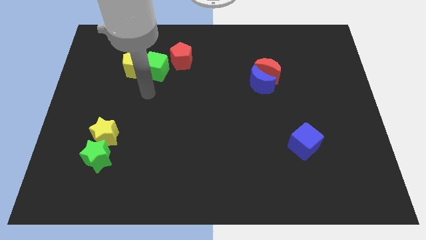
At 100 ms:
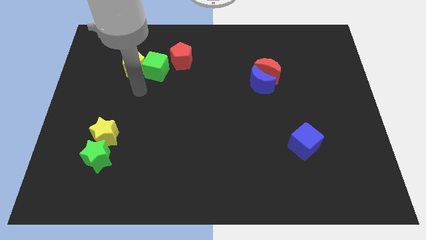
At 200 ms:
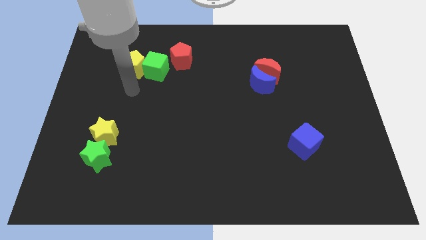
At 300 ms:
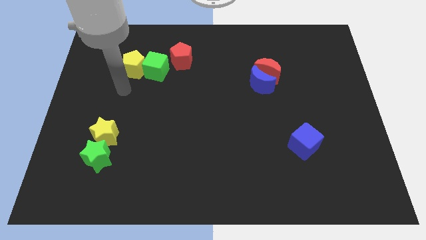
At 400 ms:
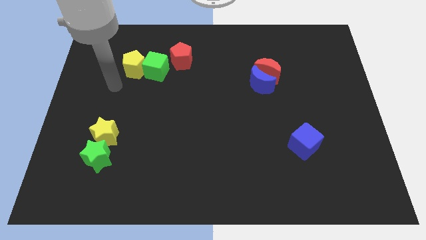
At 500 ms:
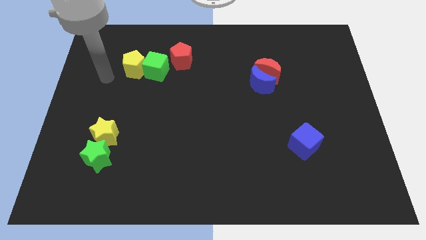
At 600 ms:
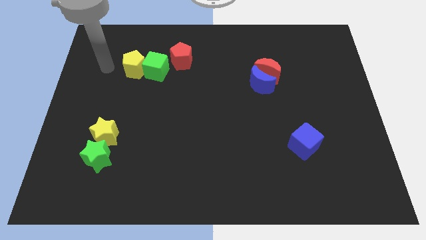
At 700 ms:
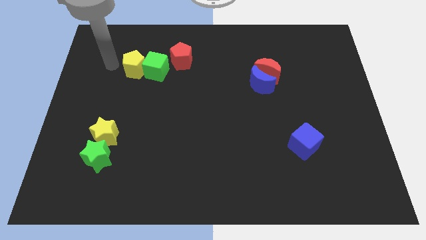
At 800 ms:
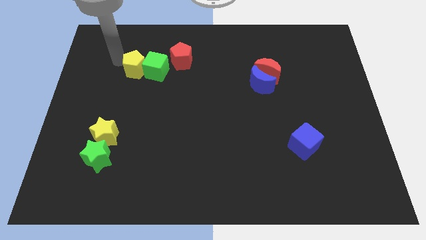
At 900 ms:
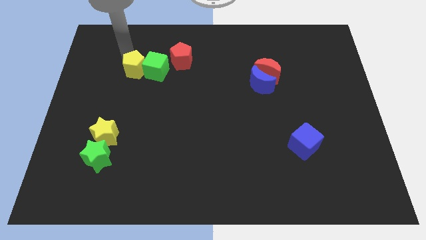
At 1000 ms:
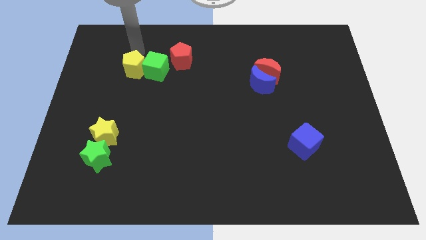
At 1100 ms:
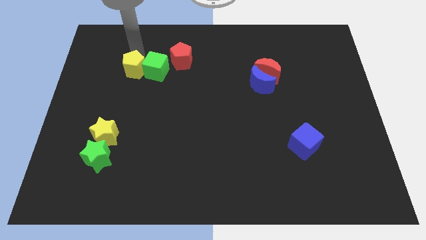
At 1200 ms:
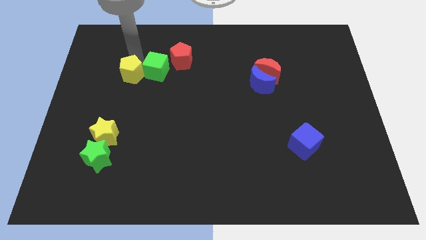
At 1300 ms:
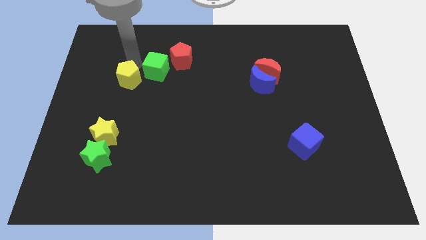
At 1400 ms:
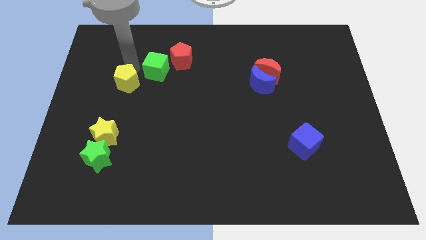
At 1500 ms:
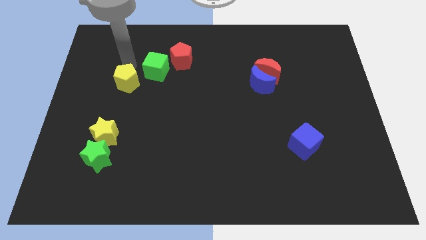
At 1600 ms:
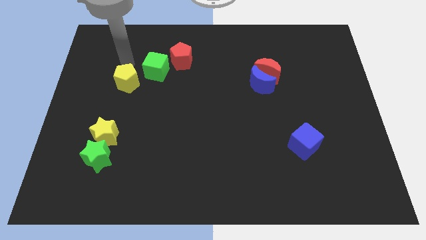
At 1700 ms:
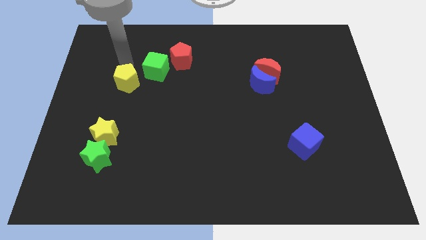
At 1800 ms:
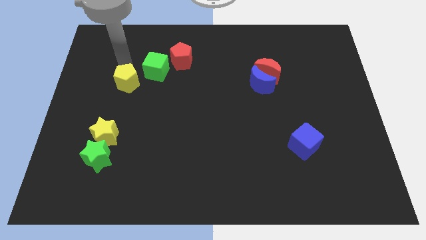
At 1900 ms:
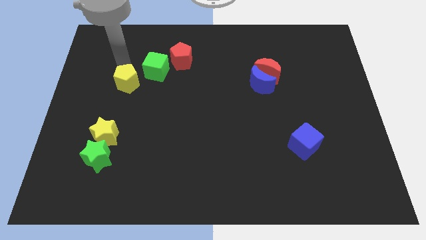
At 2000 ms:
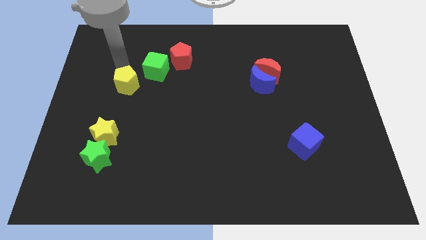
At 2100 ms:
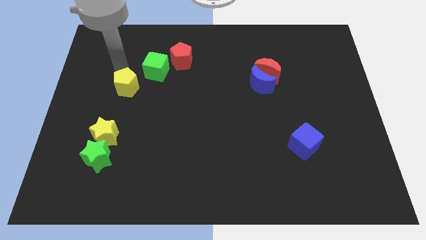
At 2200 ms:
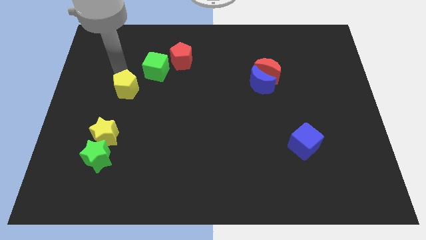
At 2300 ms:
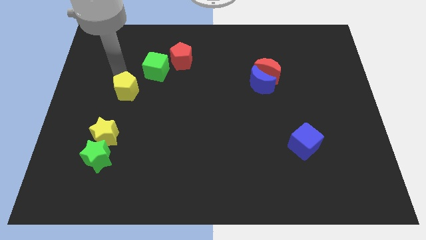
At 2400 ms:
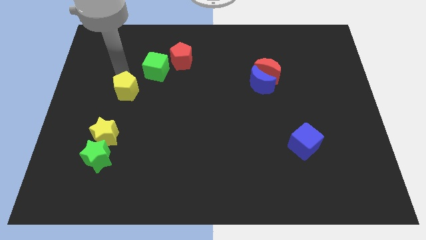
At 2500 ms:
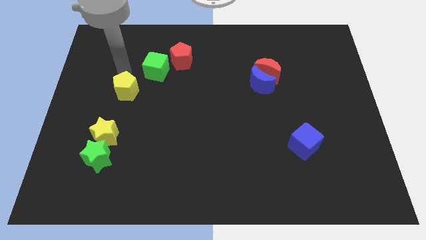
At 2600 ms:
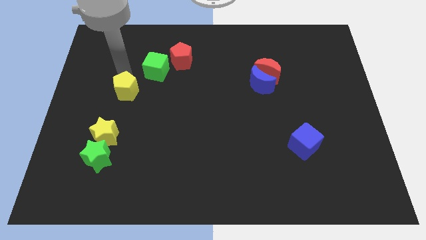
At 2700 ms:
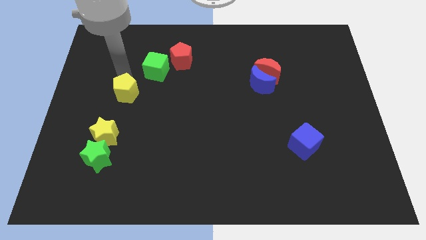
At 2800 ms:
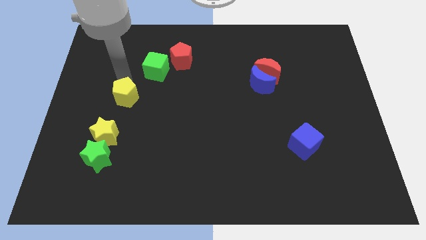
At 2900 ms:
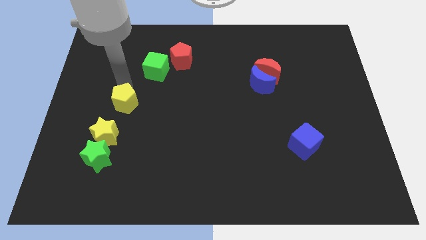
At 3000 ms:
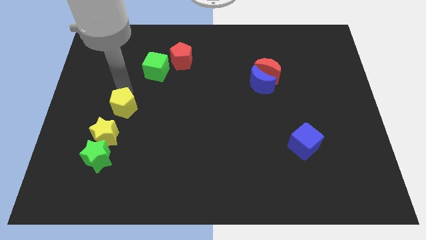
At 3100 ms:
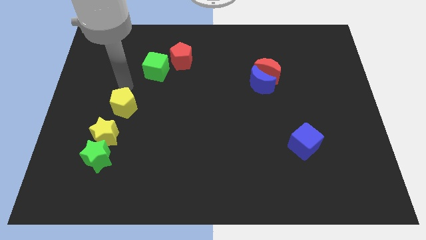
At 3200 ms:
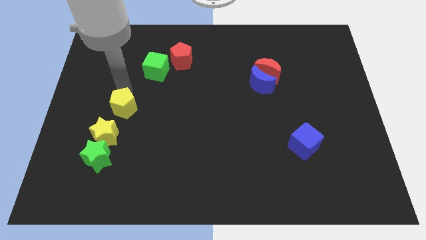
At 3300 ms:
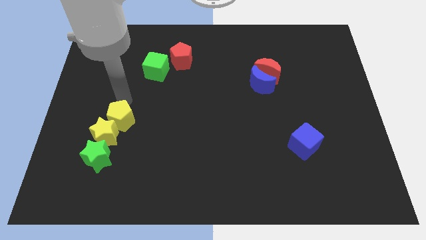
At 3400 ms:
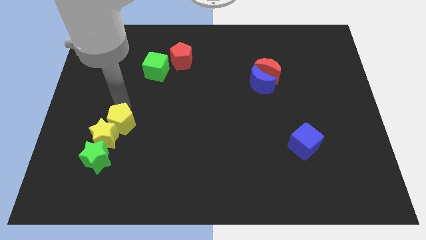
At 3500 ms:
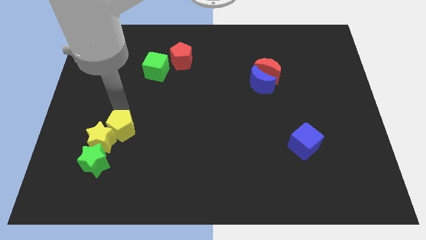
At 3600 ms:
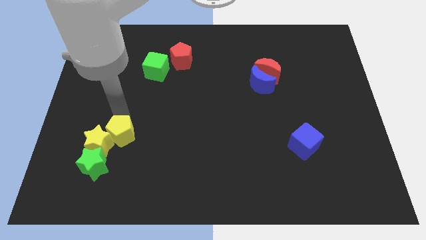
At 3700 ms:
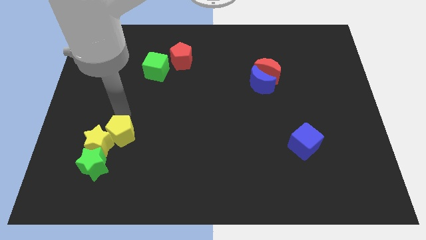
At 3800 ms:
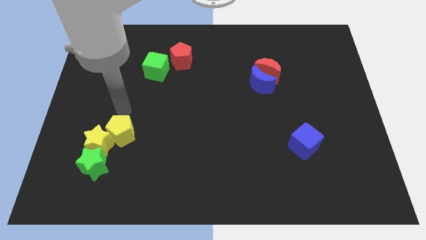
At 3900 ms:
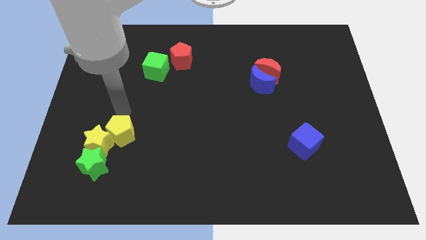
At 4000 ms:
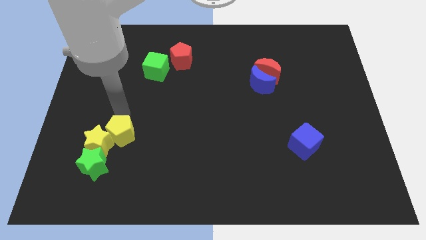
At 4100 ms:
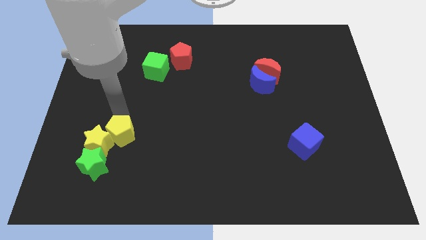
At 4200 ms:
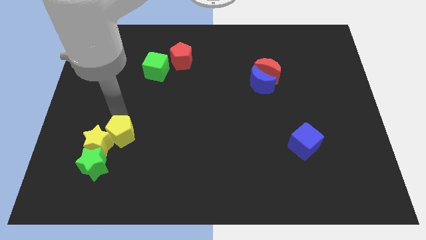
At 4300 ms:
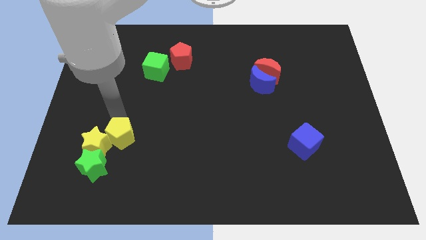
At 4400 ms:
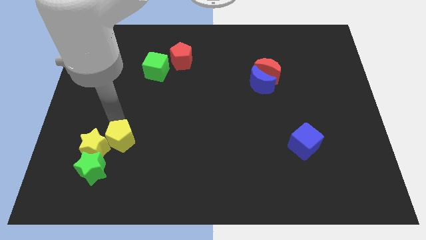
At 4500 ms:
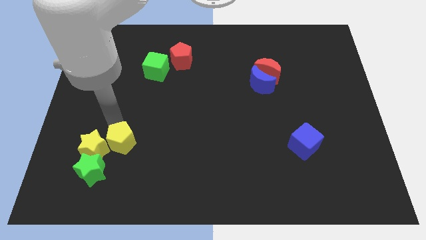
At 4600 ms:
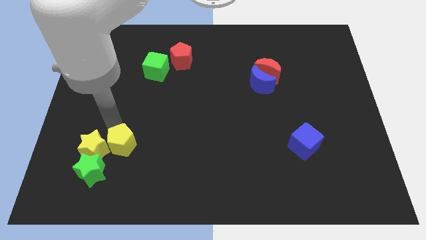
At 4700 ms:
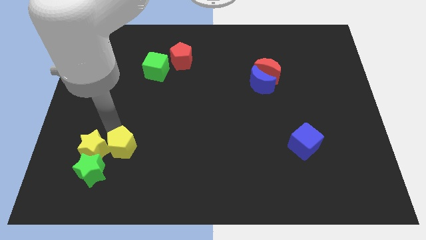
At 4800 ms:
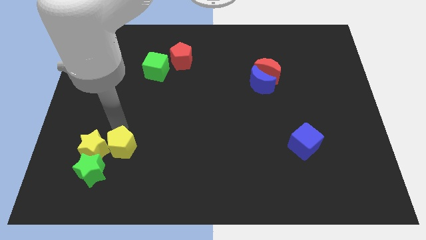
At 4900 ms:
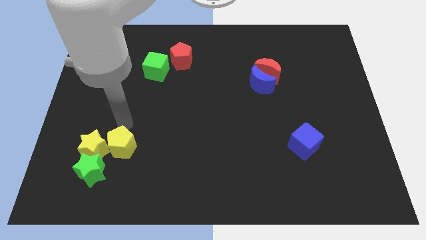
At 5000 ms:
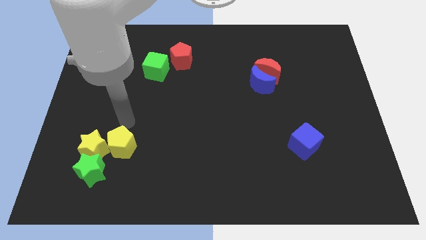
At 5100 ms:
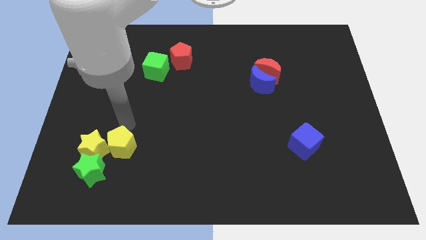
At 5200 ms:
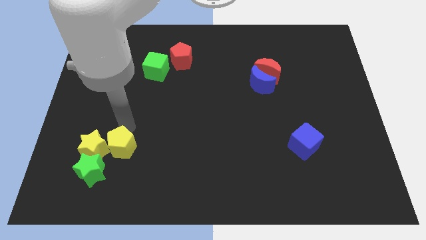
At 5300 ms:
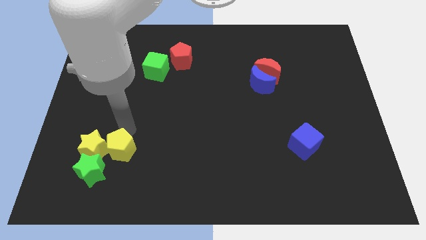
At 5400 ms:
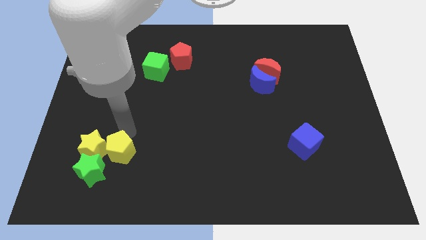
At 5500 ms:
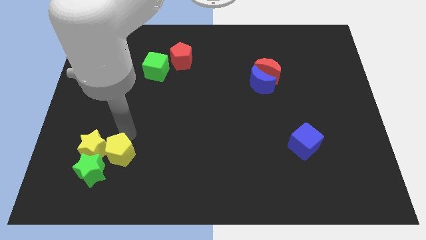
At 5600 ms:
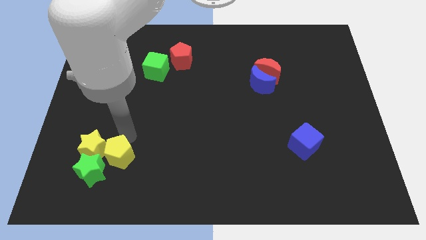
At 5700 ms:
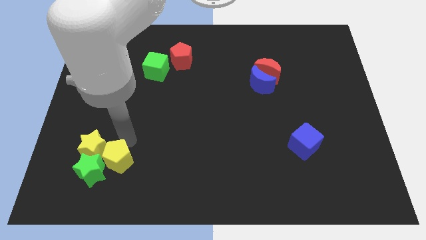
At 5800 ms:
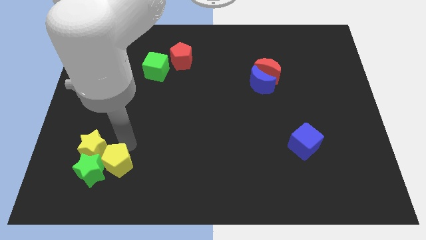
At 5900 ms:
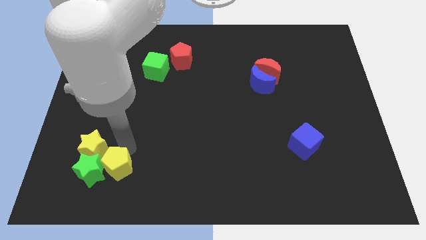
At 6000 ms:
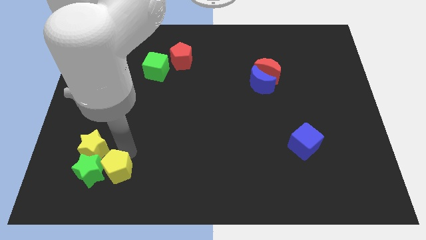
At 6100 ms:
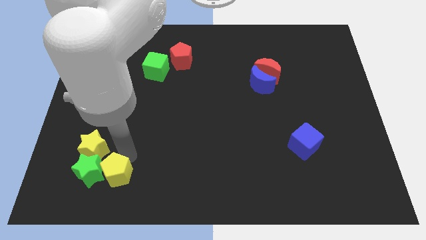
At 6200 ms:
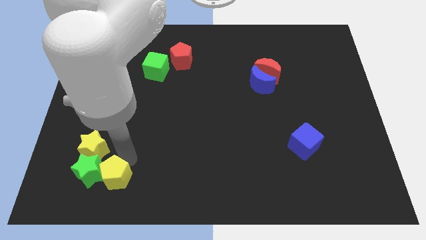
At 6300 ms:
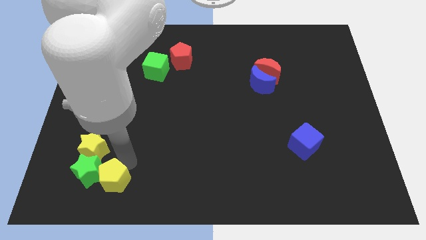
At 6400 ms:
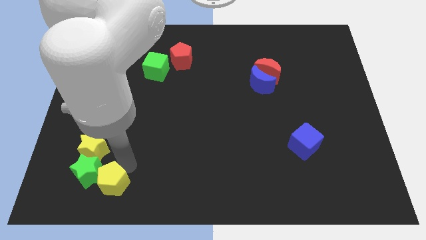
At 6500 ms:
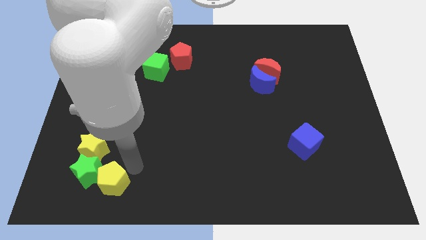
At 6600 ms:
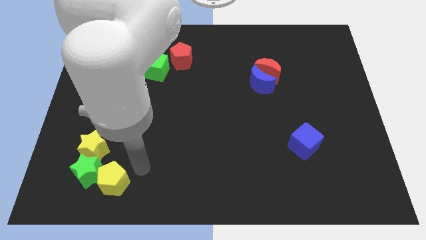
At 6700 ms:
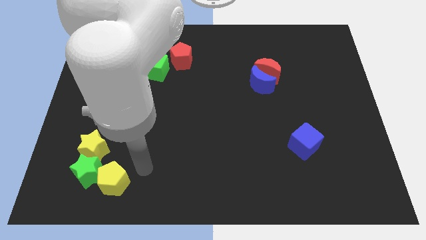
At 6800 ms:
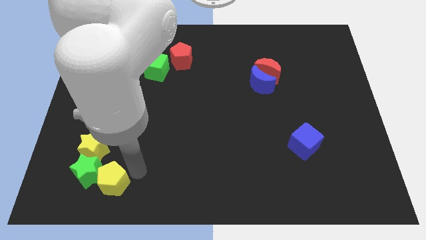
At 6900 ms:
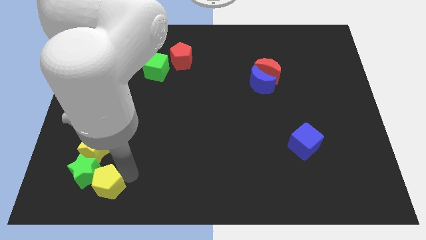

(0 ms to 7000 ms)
move the yellow pentagon to the bottom side of the yellow star

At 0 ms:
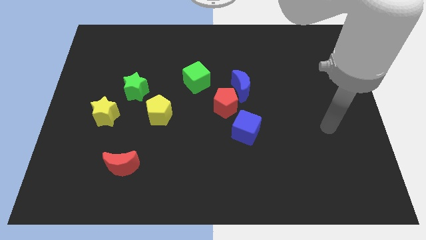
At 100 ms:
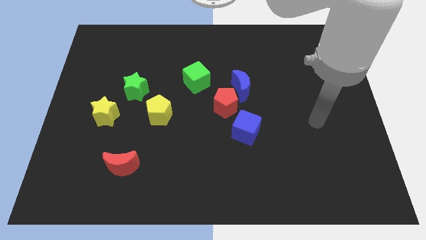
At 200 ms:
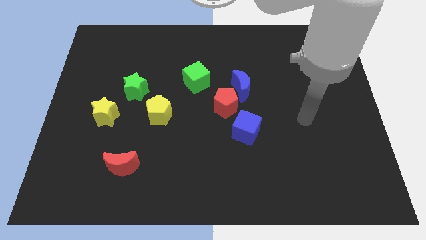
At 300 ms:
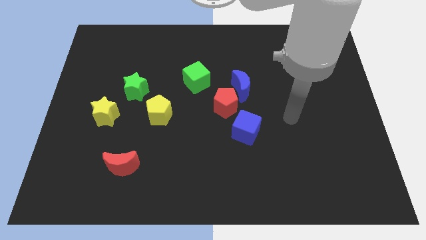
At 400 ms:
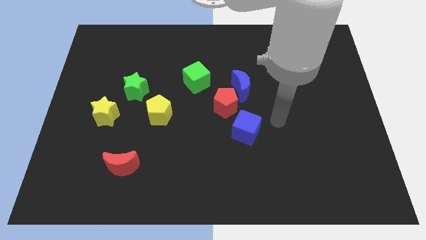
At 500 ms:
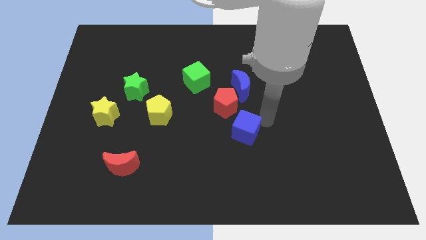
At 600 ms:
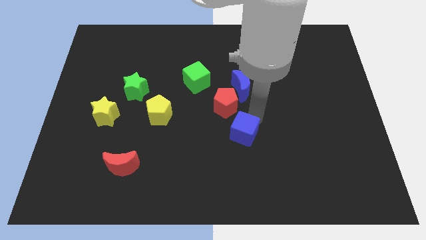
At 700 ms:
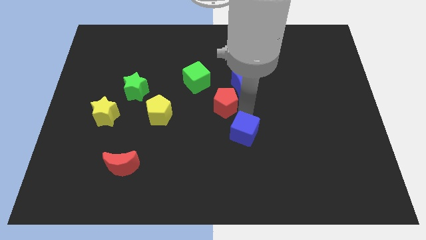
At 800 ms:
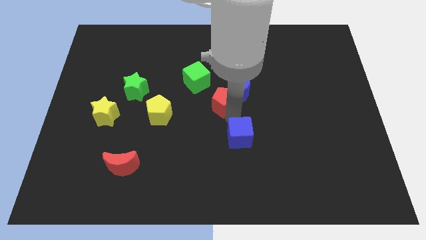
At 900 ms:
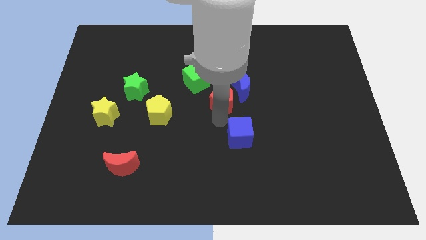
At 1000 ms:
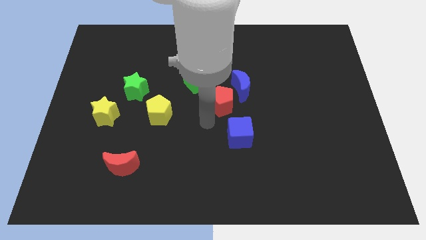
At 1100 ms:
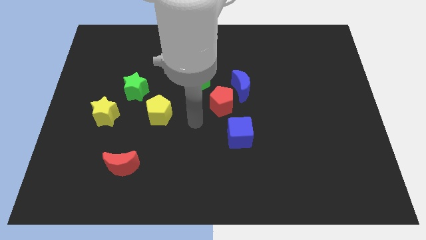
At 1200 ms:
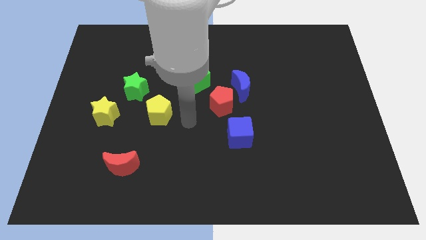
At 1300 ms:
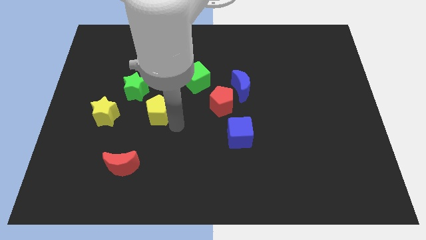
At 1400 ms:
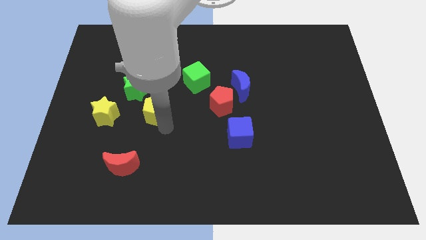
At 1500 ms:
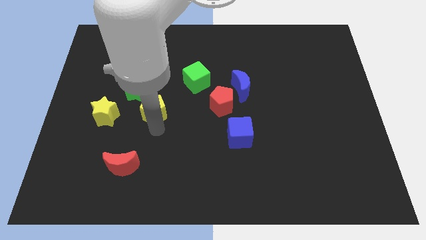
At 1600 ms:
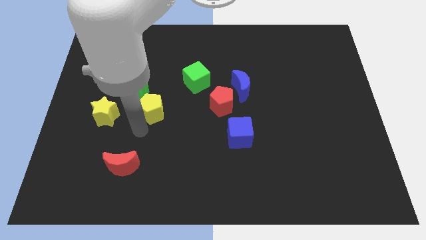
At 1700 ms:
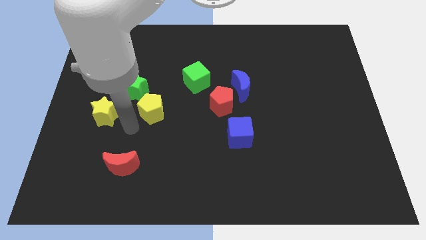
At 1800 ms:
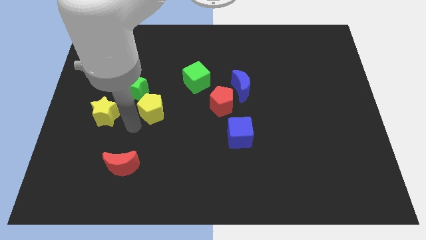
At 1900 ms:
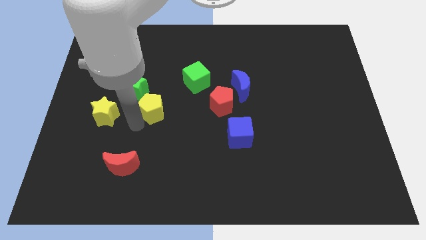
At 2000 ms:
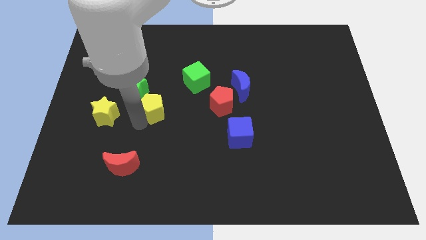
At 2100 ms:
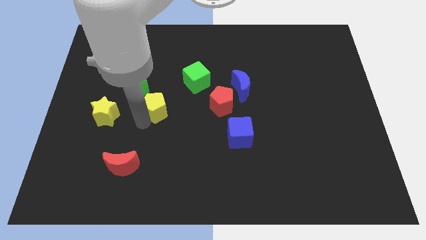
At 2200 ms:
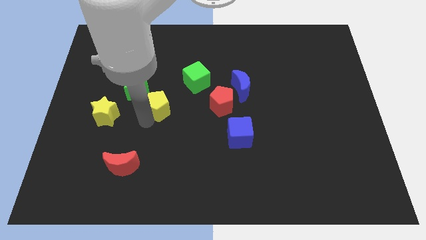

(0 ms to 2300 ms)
slide the yellow pentagon to the bottom left side of the green cube
